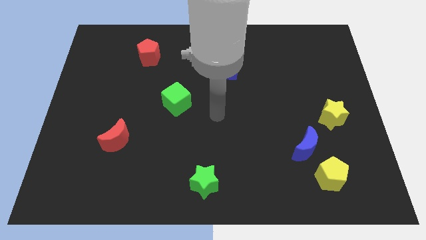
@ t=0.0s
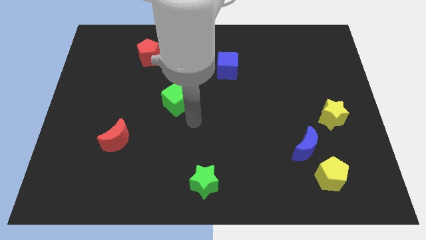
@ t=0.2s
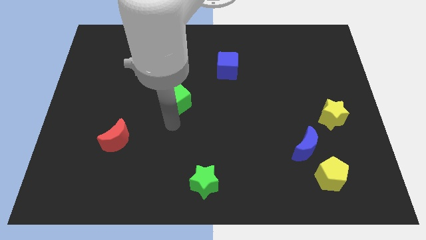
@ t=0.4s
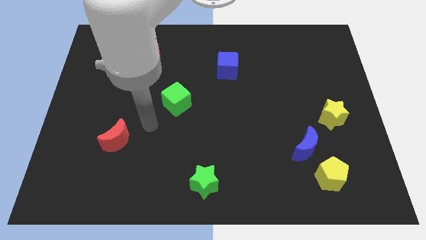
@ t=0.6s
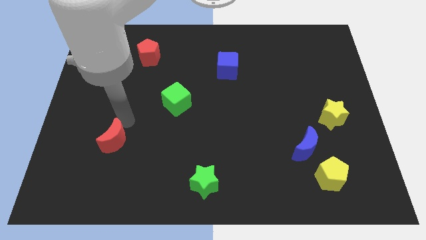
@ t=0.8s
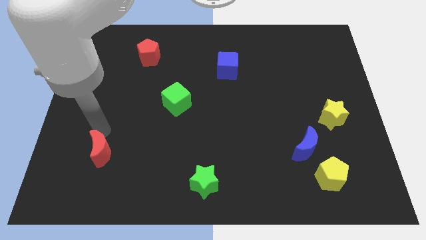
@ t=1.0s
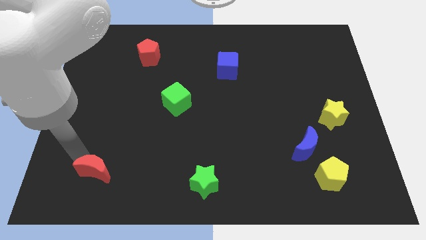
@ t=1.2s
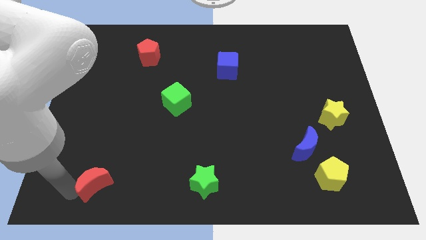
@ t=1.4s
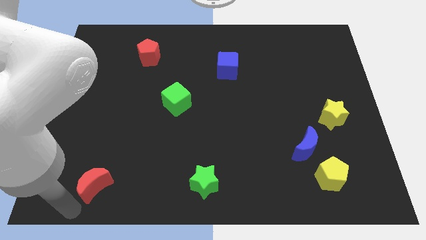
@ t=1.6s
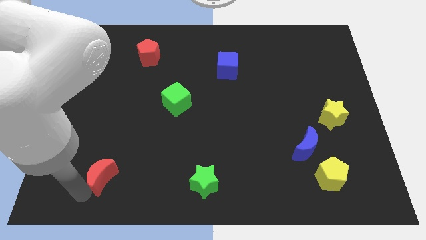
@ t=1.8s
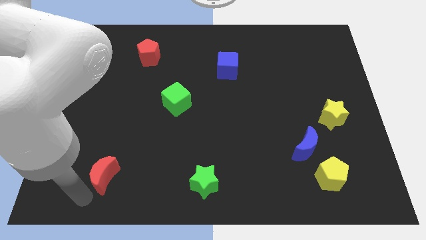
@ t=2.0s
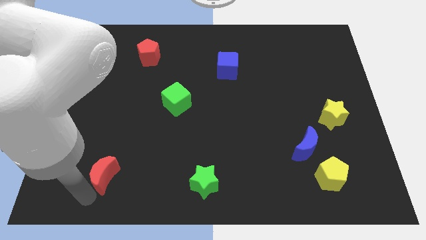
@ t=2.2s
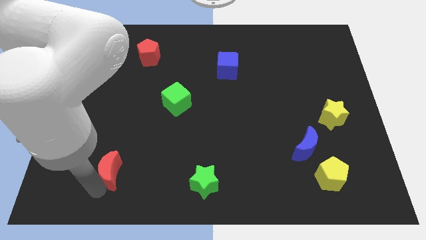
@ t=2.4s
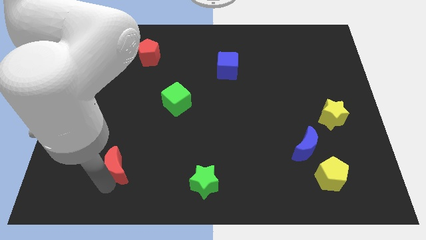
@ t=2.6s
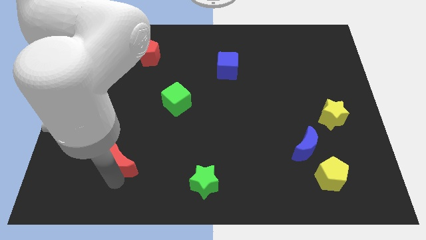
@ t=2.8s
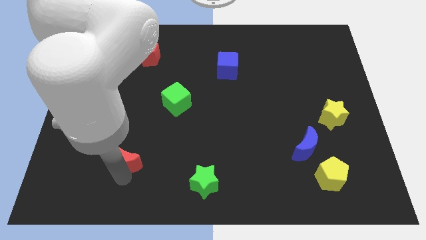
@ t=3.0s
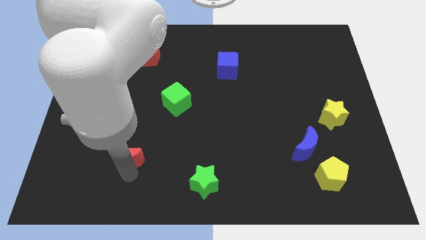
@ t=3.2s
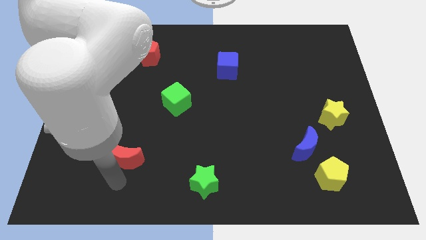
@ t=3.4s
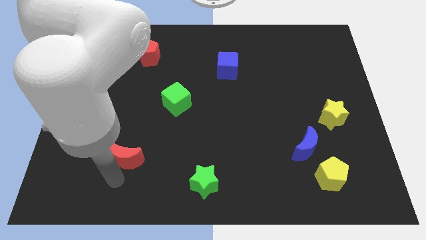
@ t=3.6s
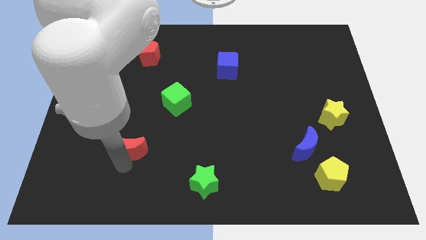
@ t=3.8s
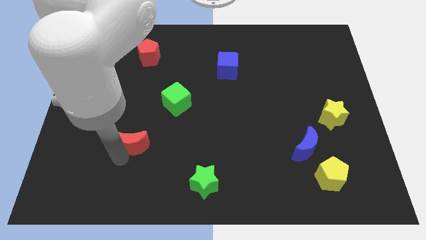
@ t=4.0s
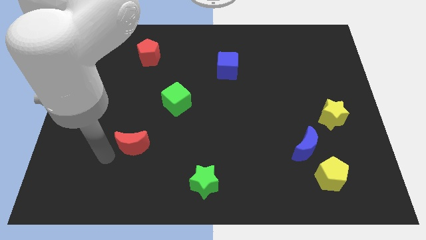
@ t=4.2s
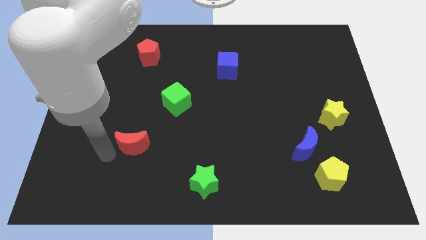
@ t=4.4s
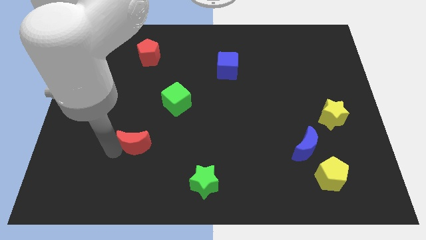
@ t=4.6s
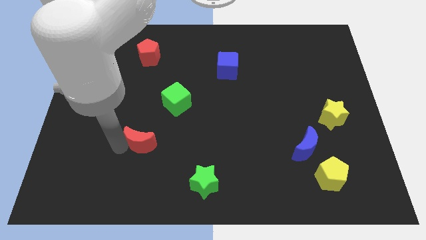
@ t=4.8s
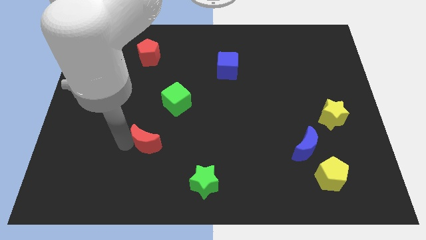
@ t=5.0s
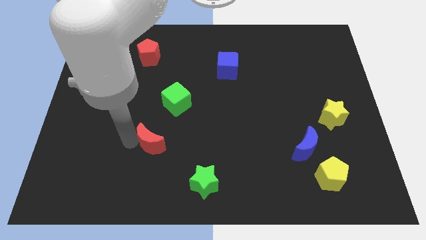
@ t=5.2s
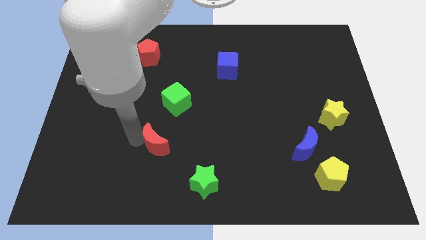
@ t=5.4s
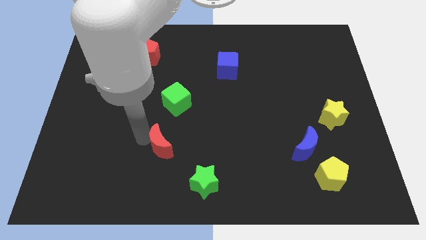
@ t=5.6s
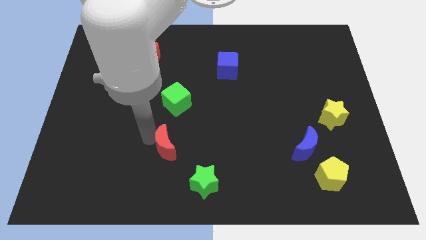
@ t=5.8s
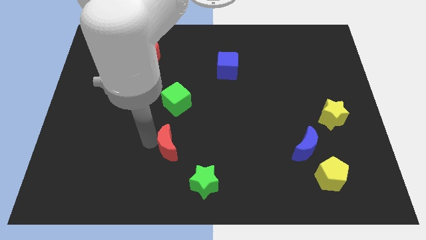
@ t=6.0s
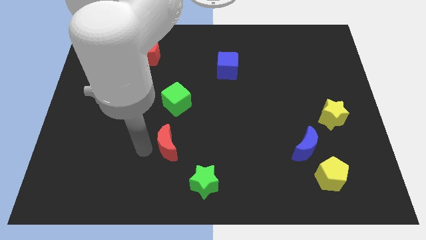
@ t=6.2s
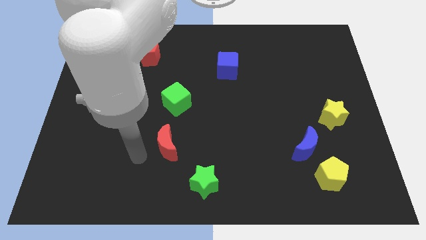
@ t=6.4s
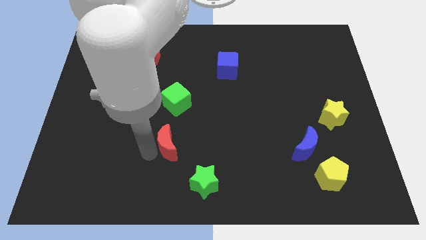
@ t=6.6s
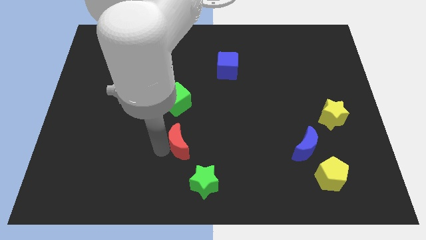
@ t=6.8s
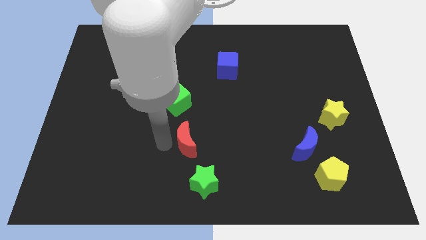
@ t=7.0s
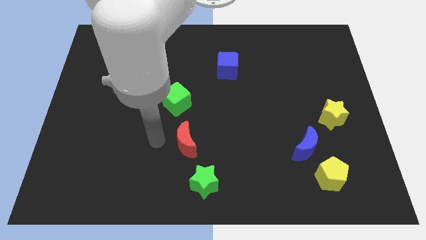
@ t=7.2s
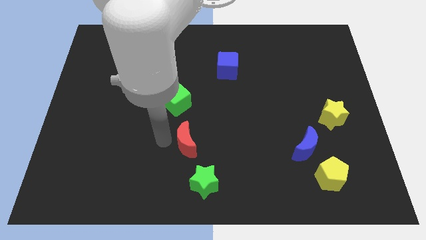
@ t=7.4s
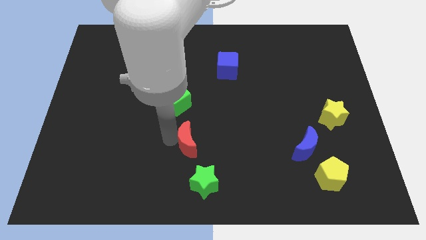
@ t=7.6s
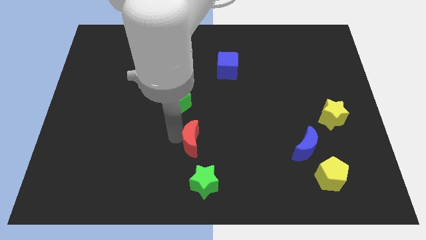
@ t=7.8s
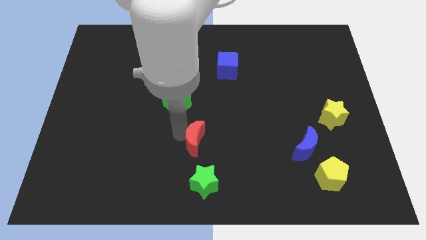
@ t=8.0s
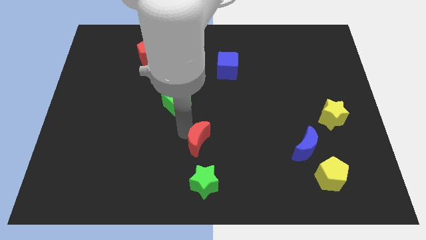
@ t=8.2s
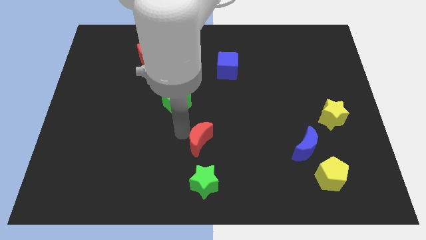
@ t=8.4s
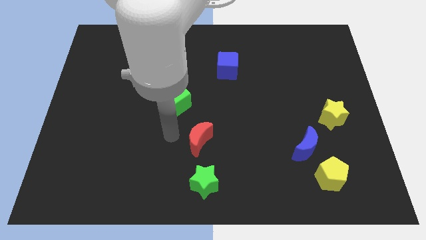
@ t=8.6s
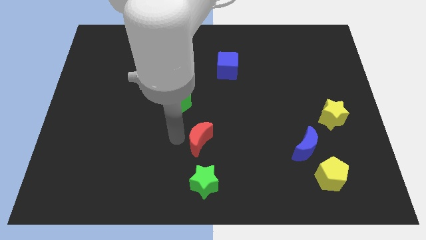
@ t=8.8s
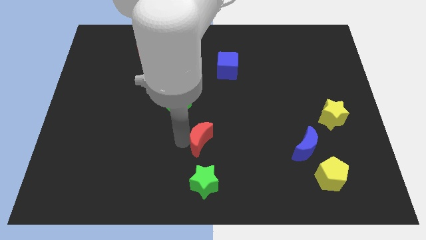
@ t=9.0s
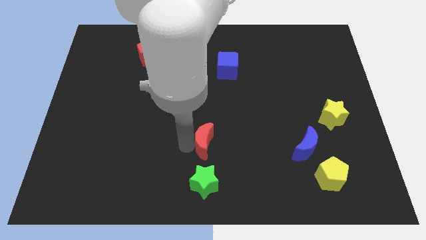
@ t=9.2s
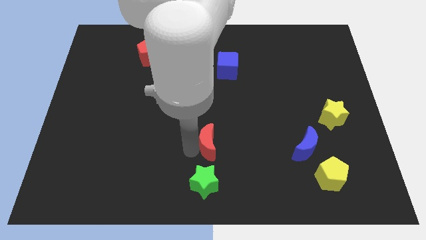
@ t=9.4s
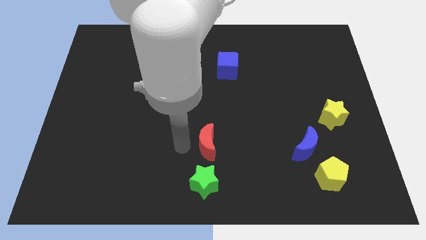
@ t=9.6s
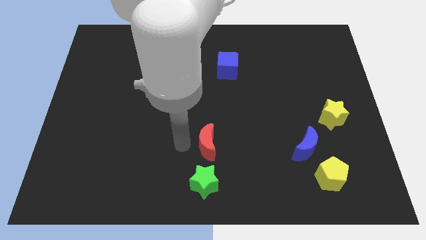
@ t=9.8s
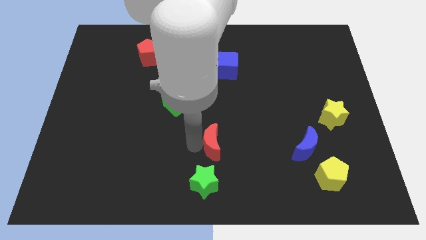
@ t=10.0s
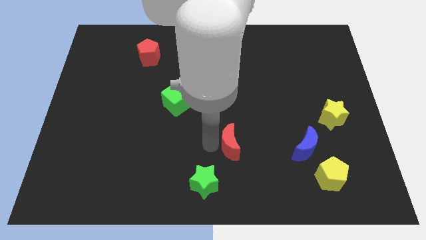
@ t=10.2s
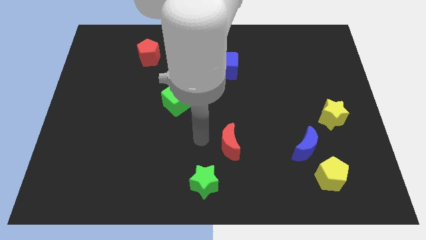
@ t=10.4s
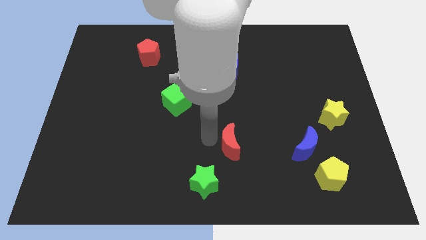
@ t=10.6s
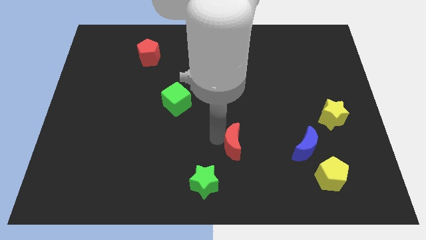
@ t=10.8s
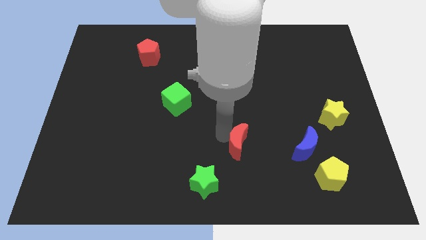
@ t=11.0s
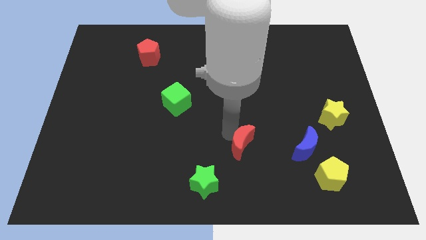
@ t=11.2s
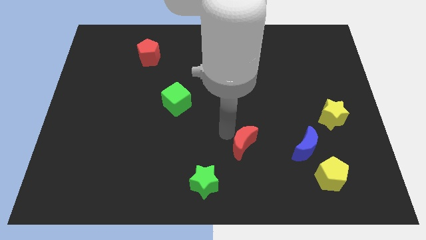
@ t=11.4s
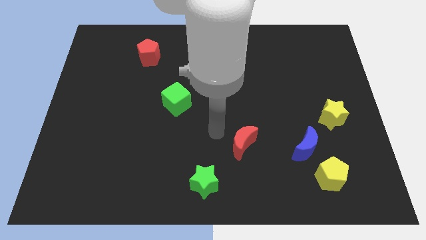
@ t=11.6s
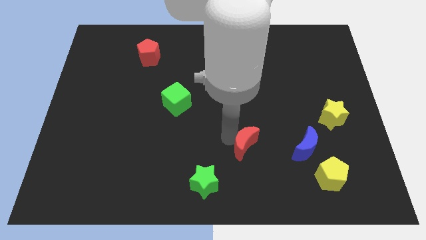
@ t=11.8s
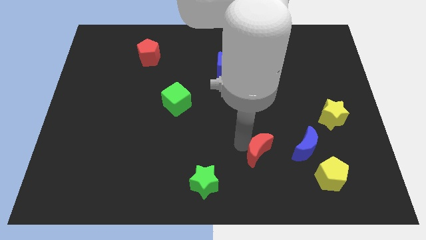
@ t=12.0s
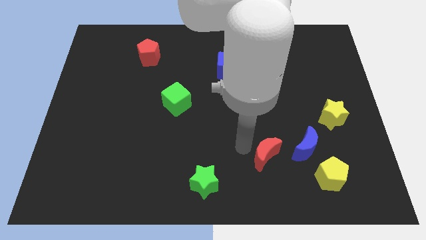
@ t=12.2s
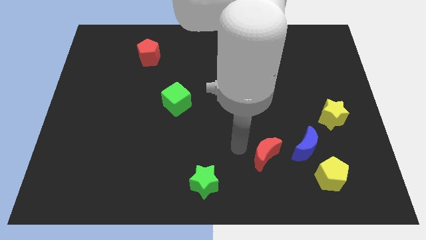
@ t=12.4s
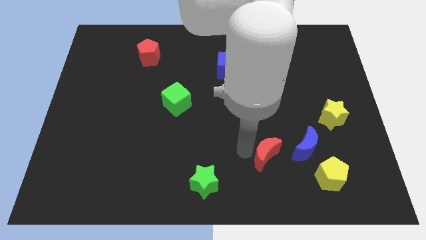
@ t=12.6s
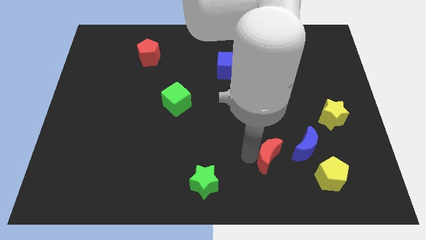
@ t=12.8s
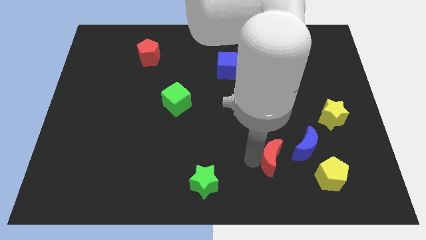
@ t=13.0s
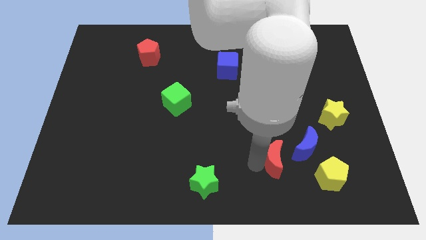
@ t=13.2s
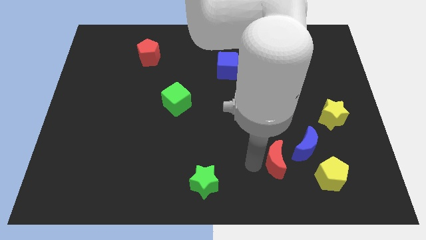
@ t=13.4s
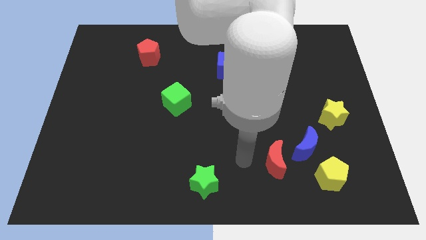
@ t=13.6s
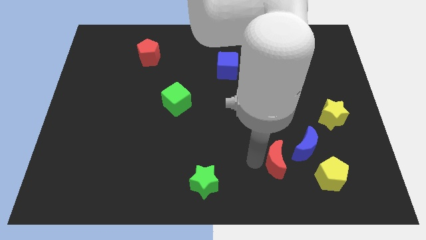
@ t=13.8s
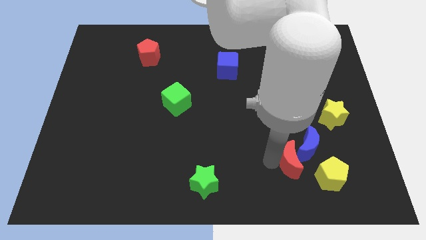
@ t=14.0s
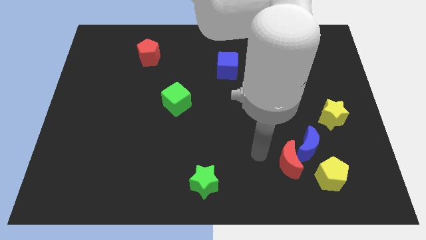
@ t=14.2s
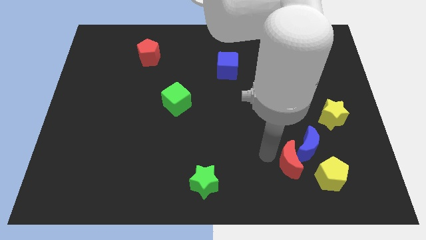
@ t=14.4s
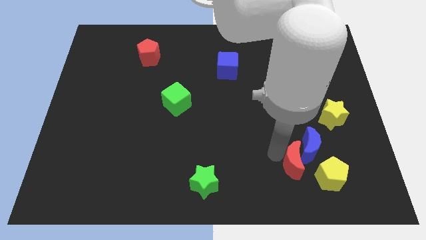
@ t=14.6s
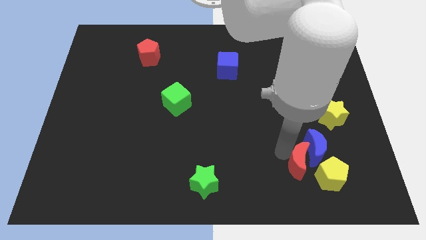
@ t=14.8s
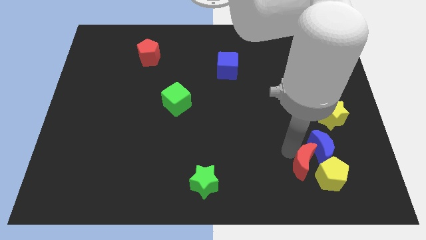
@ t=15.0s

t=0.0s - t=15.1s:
move the red moon towards the yellow pentagon

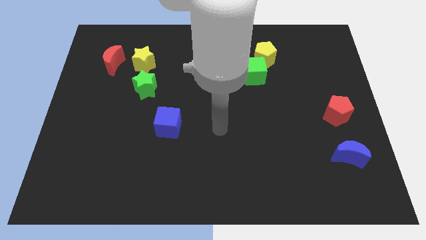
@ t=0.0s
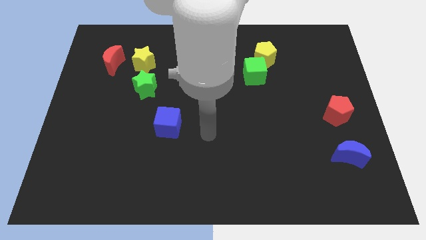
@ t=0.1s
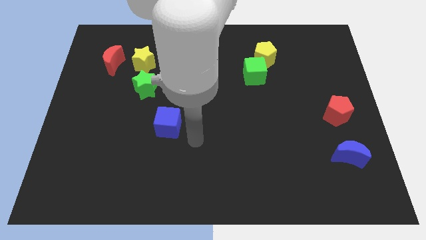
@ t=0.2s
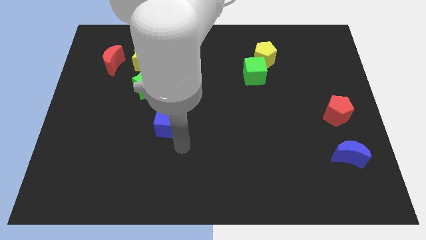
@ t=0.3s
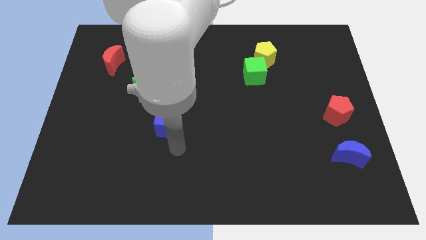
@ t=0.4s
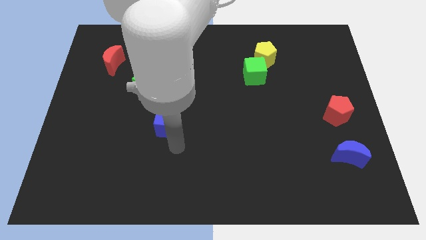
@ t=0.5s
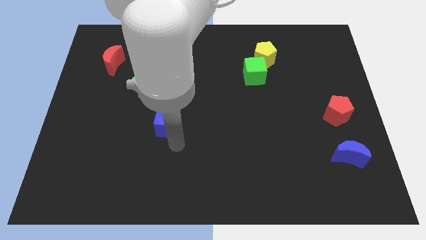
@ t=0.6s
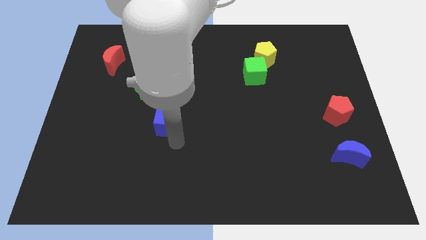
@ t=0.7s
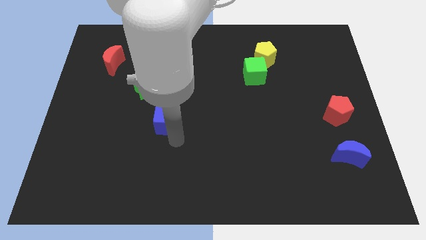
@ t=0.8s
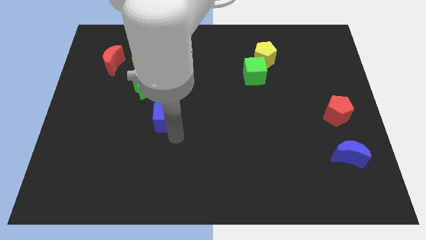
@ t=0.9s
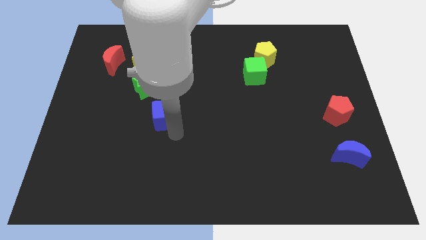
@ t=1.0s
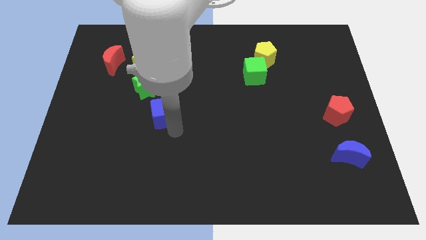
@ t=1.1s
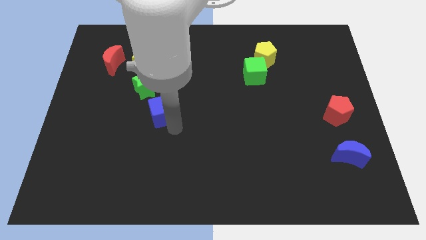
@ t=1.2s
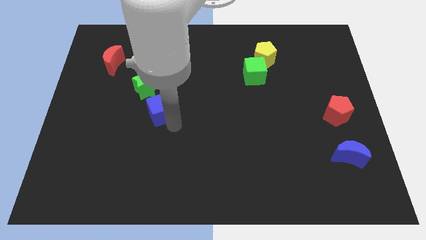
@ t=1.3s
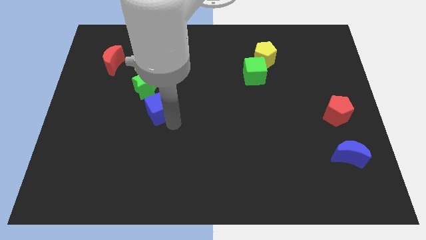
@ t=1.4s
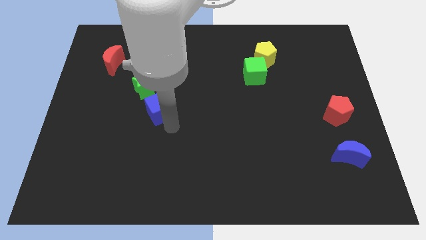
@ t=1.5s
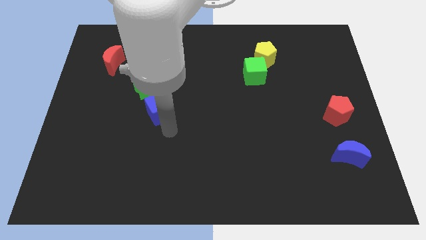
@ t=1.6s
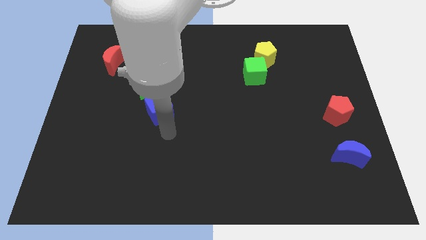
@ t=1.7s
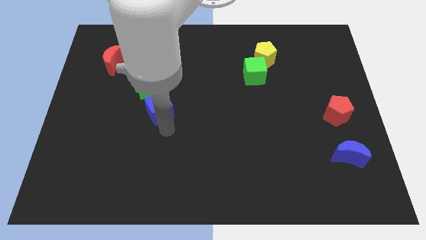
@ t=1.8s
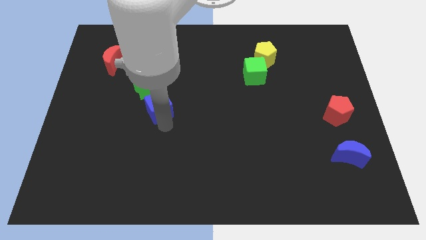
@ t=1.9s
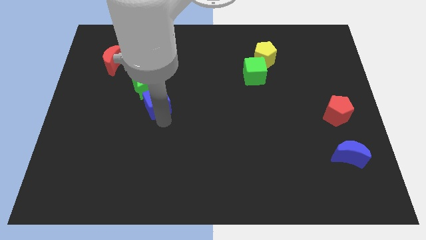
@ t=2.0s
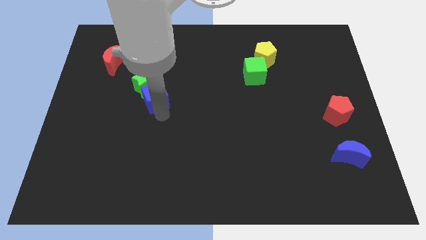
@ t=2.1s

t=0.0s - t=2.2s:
slide the blue cube towards the green star
